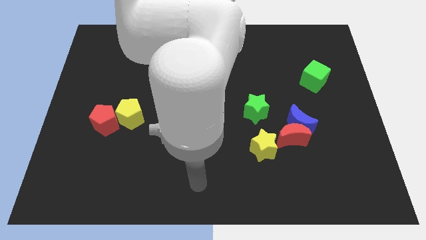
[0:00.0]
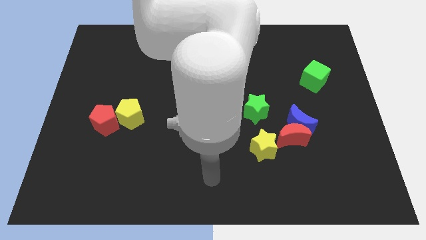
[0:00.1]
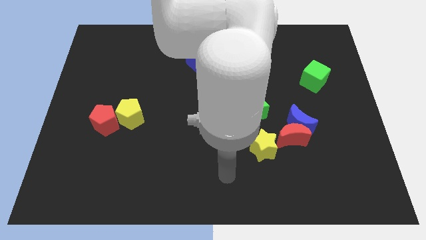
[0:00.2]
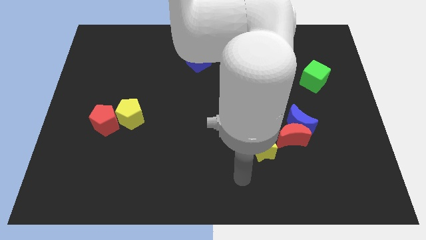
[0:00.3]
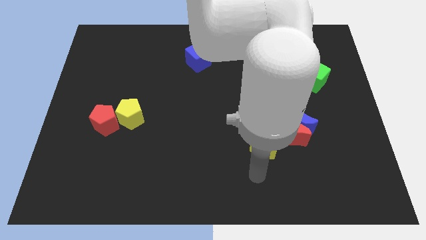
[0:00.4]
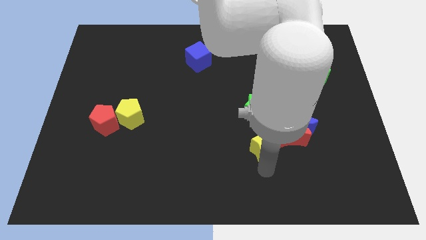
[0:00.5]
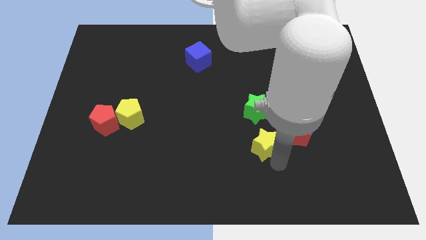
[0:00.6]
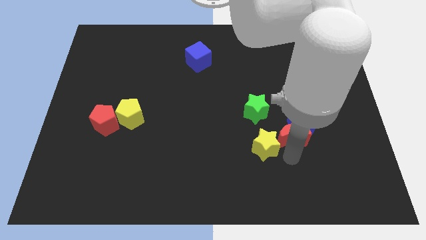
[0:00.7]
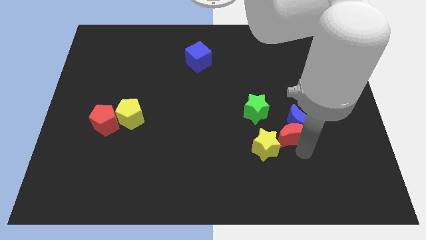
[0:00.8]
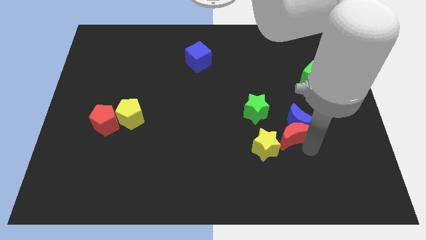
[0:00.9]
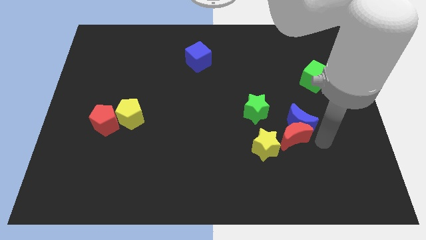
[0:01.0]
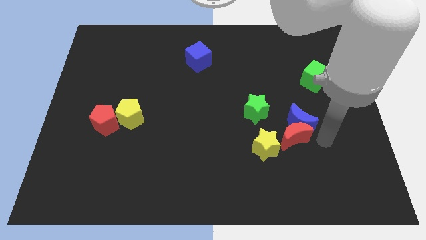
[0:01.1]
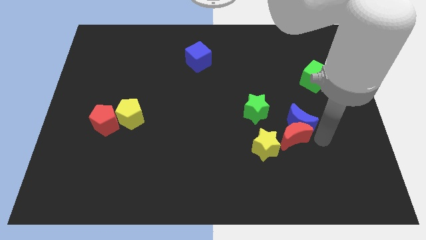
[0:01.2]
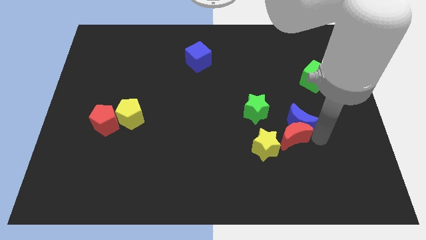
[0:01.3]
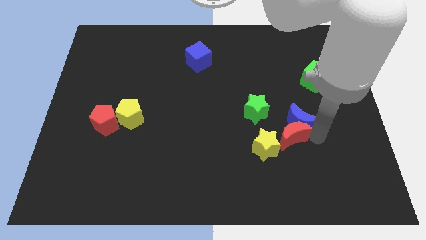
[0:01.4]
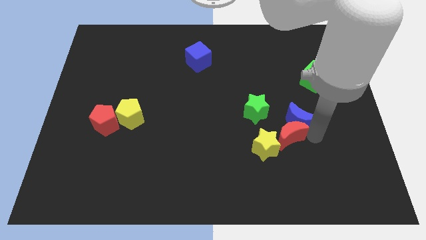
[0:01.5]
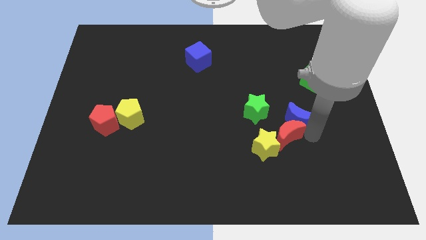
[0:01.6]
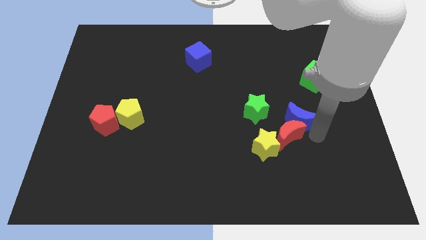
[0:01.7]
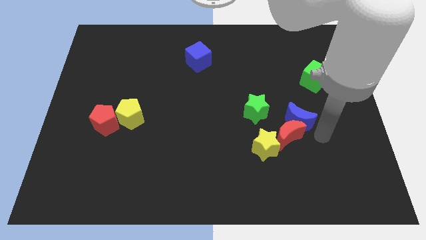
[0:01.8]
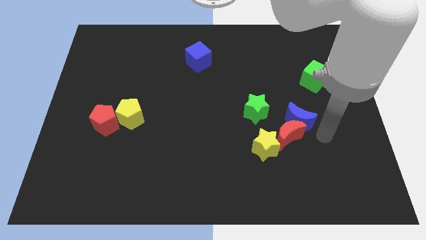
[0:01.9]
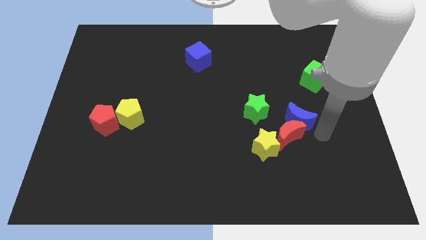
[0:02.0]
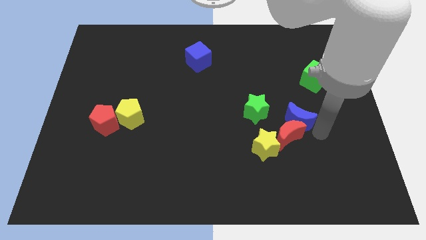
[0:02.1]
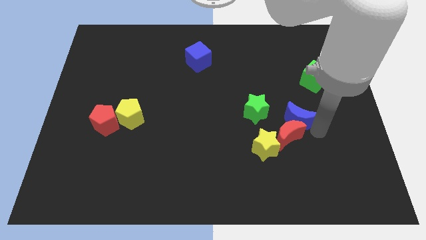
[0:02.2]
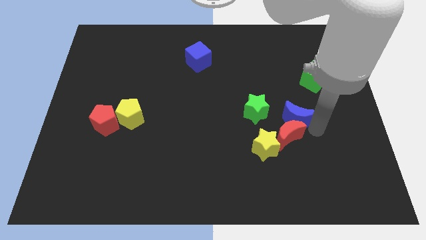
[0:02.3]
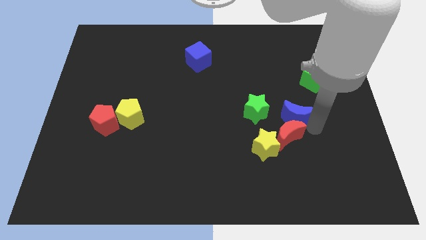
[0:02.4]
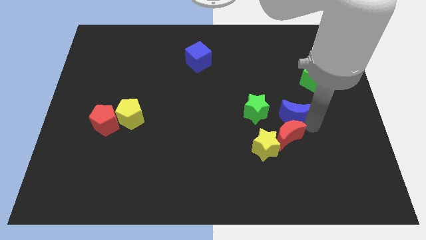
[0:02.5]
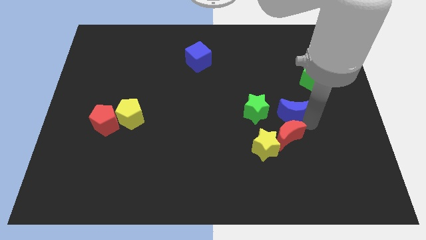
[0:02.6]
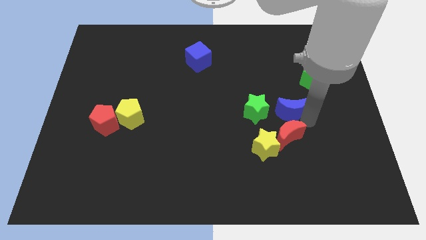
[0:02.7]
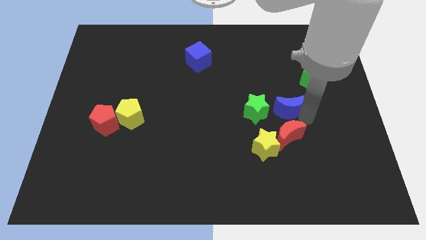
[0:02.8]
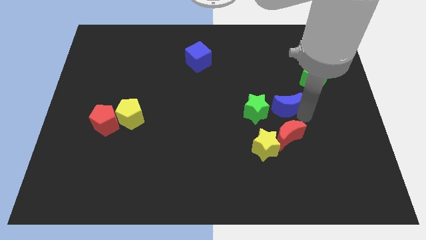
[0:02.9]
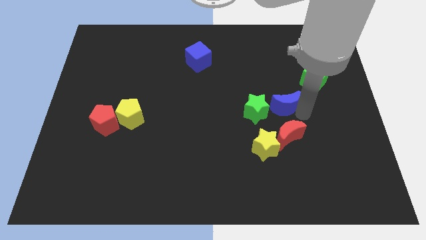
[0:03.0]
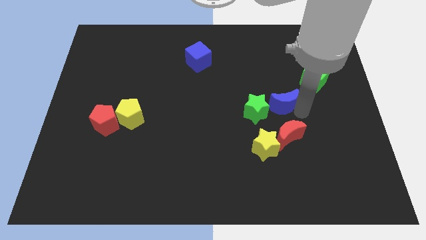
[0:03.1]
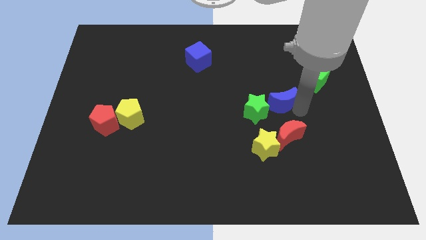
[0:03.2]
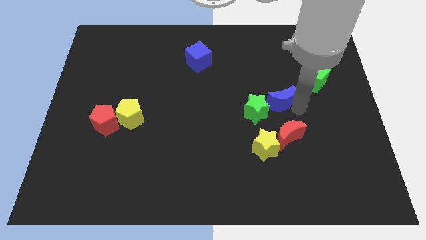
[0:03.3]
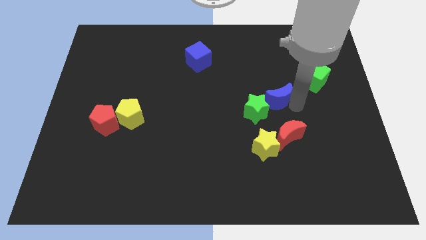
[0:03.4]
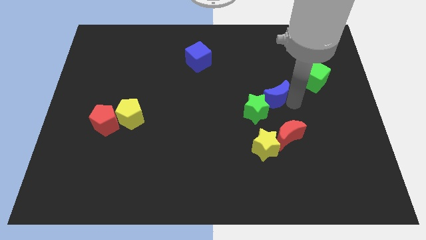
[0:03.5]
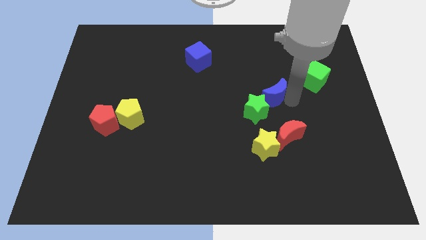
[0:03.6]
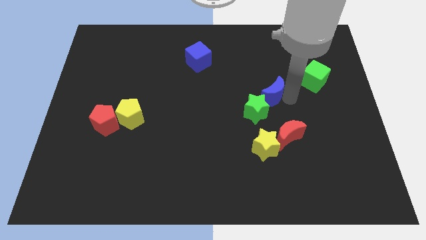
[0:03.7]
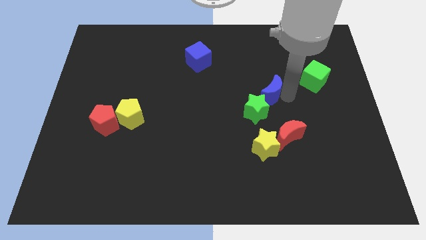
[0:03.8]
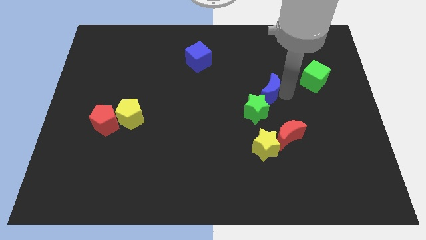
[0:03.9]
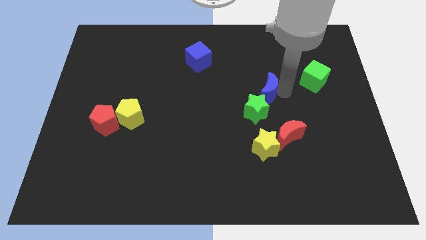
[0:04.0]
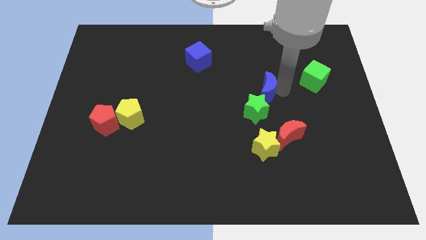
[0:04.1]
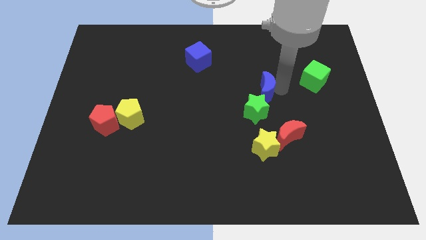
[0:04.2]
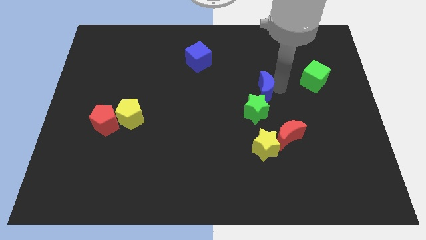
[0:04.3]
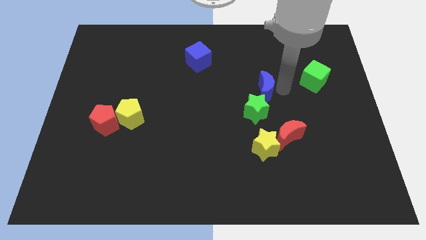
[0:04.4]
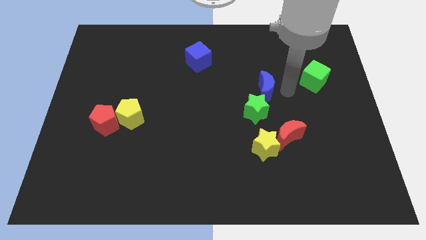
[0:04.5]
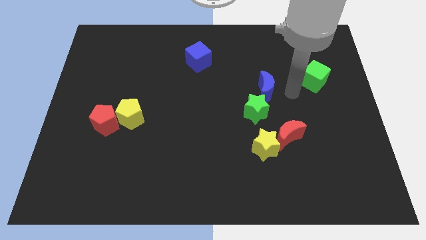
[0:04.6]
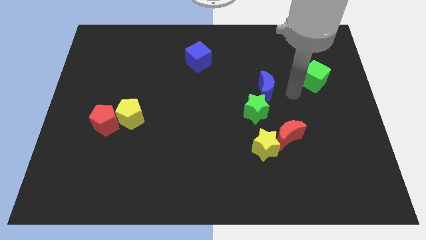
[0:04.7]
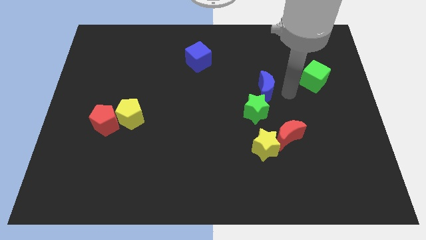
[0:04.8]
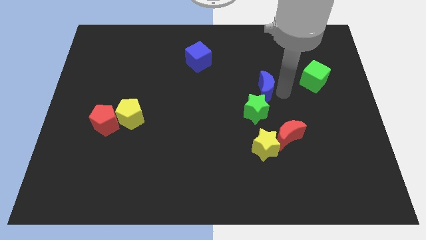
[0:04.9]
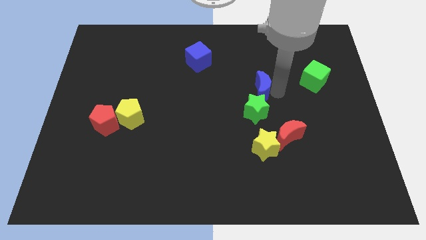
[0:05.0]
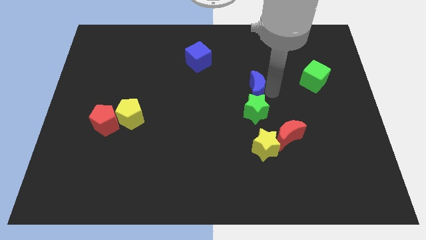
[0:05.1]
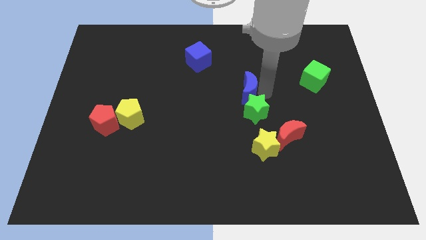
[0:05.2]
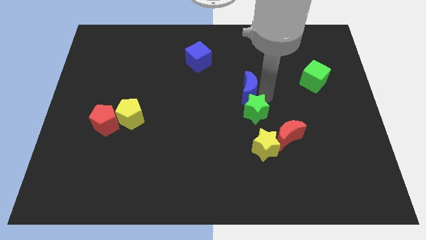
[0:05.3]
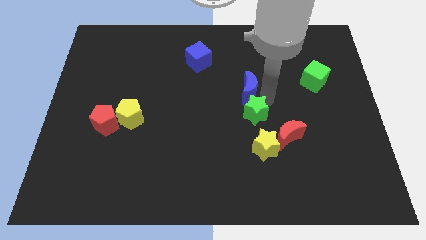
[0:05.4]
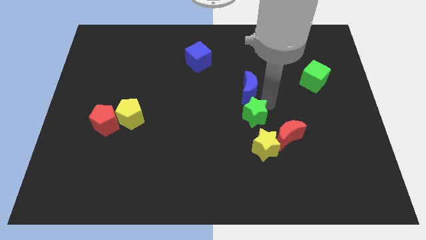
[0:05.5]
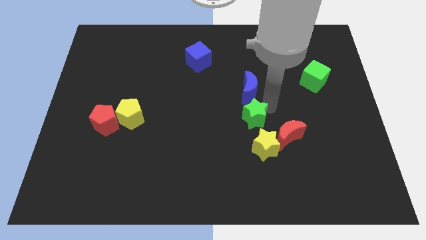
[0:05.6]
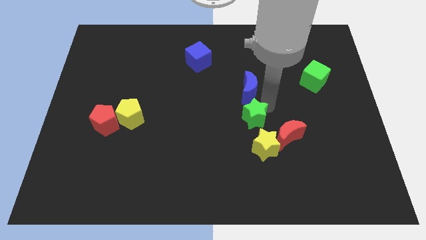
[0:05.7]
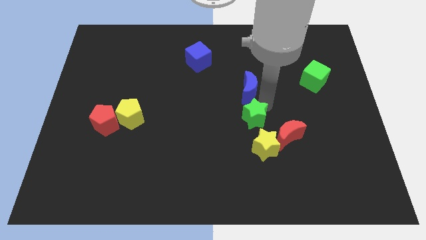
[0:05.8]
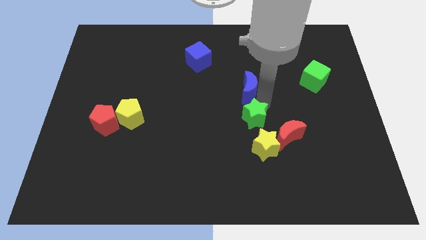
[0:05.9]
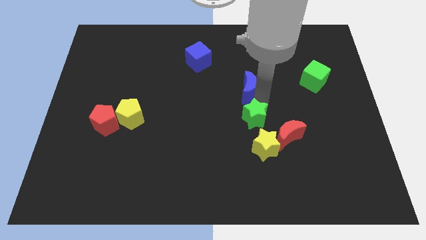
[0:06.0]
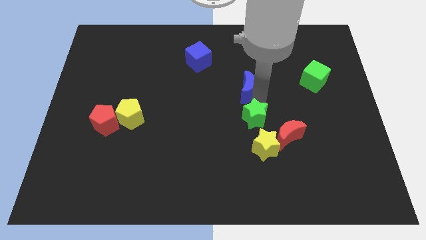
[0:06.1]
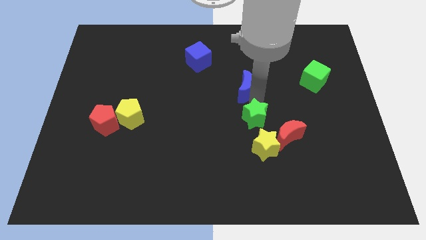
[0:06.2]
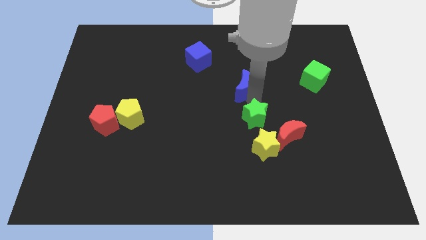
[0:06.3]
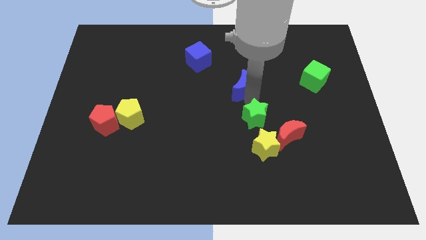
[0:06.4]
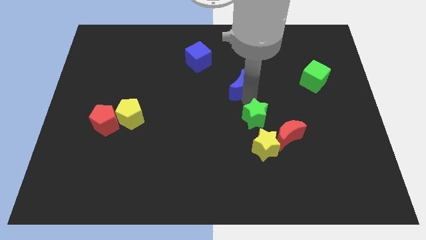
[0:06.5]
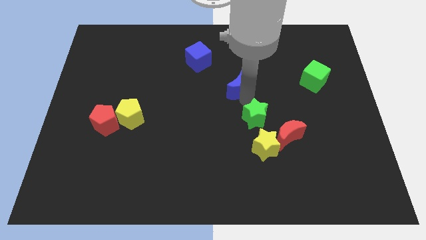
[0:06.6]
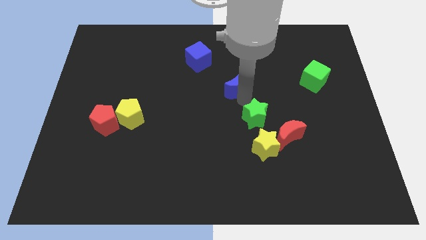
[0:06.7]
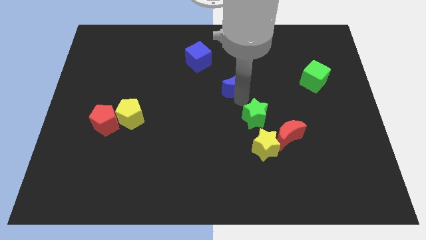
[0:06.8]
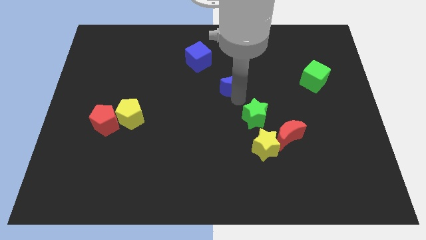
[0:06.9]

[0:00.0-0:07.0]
slide the blue moon to the bottom right side of the blue cube
